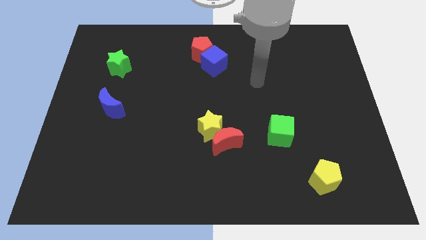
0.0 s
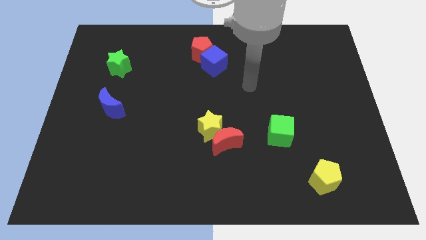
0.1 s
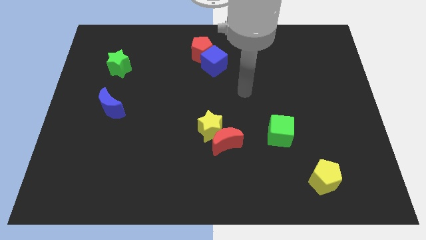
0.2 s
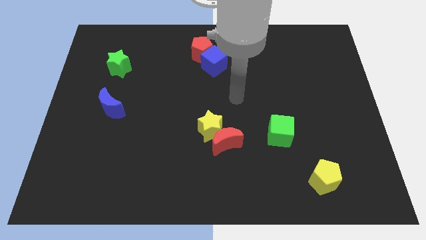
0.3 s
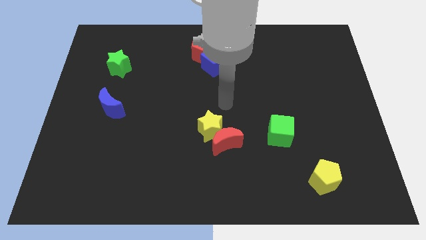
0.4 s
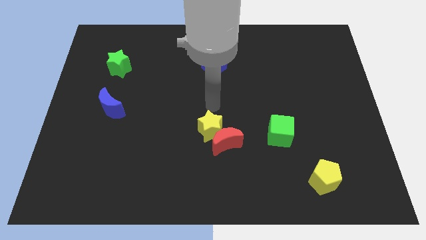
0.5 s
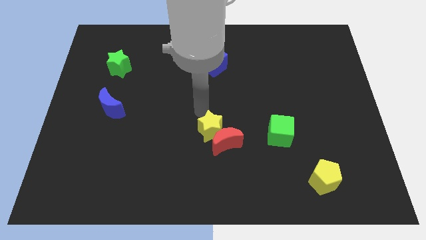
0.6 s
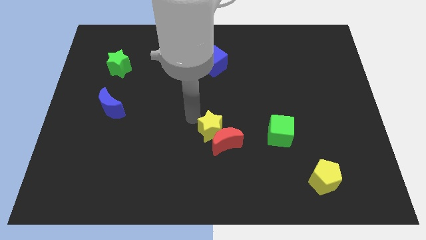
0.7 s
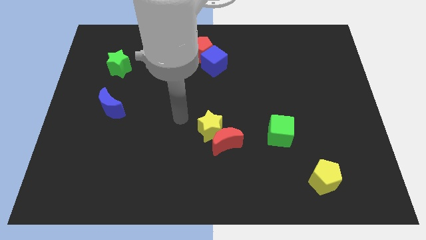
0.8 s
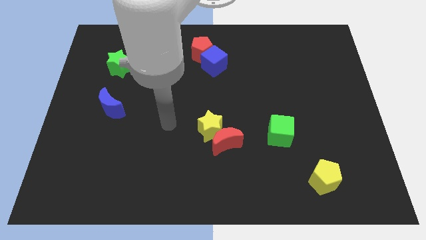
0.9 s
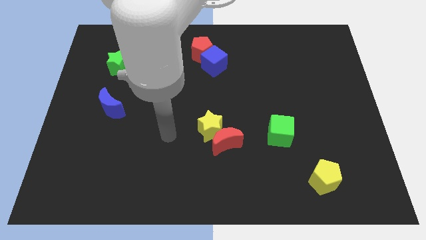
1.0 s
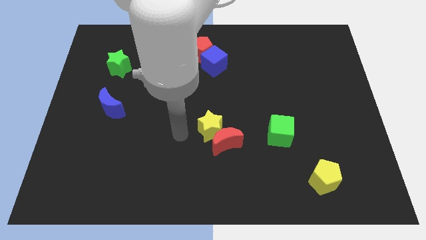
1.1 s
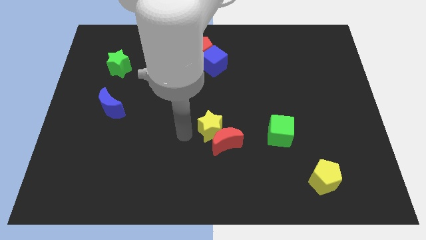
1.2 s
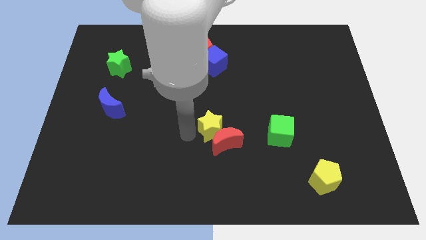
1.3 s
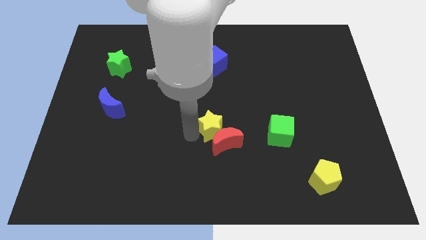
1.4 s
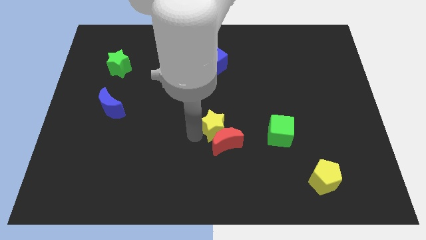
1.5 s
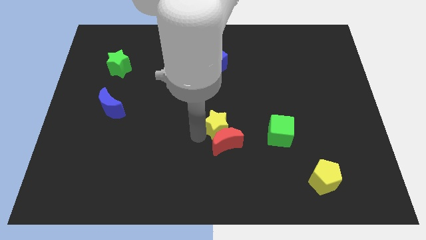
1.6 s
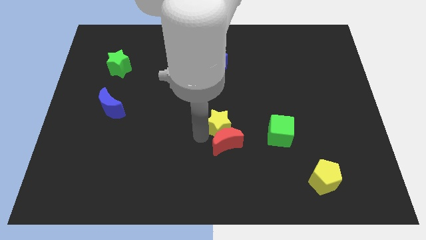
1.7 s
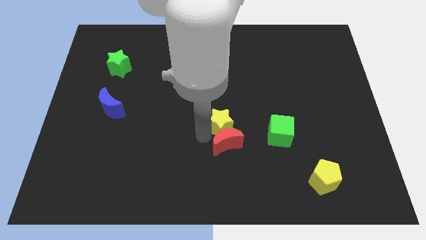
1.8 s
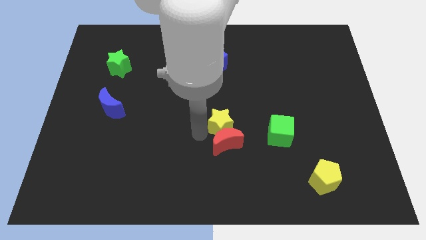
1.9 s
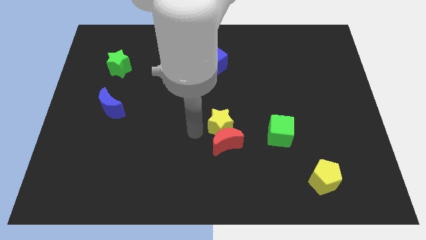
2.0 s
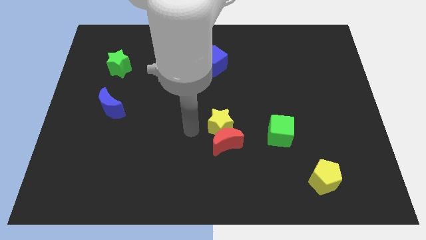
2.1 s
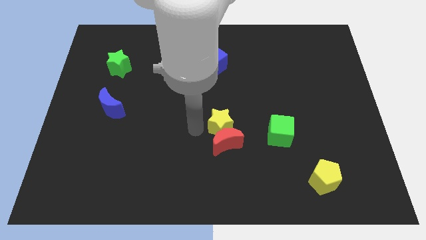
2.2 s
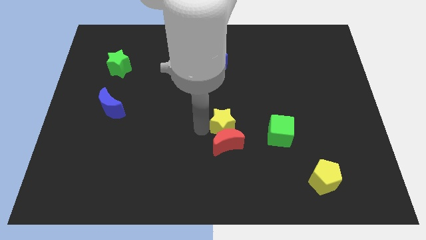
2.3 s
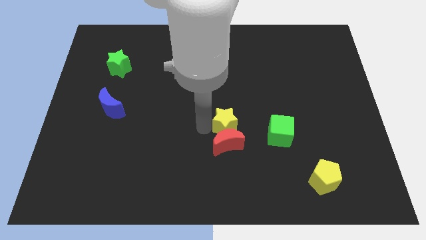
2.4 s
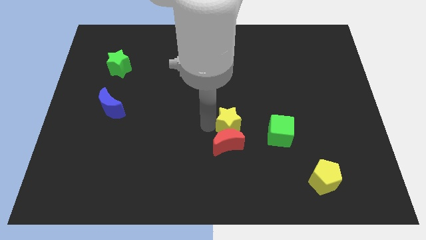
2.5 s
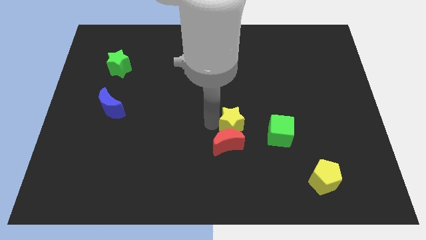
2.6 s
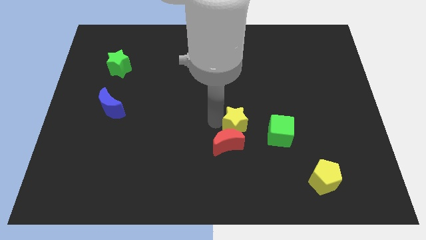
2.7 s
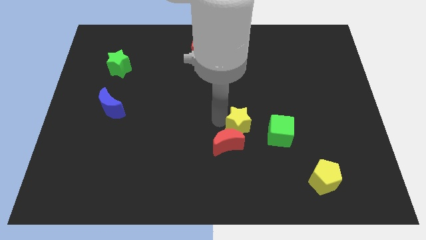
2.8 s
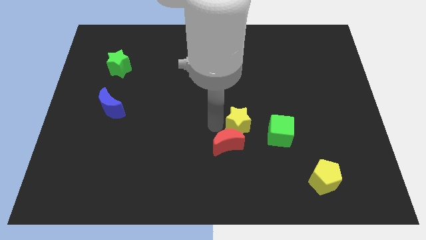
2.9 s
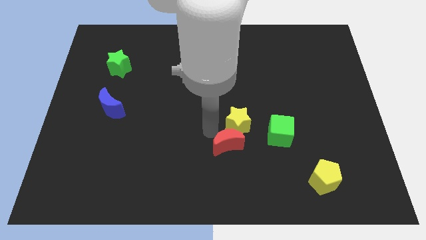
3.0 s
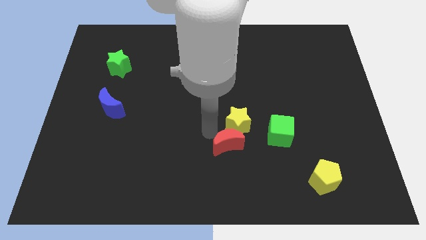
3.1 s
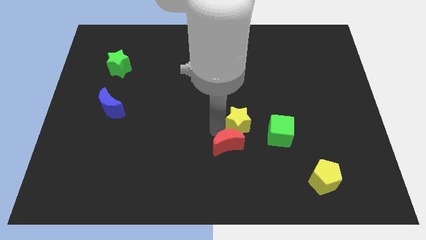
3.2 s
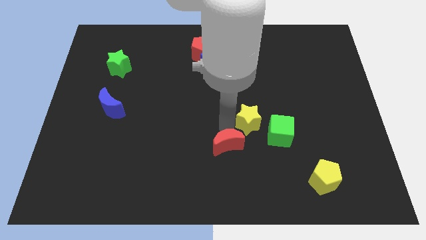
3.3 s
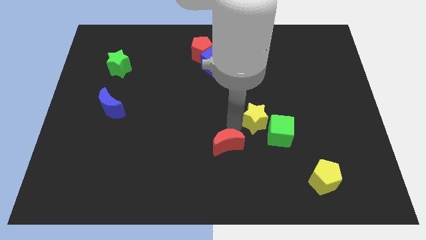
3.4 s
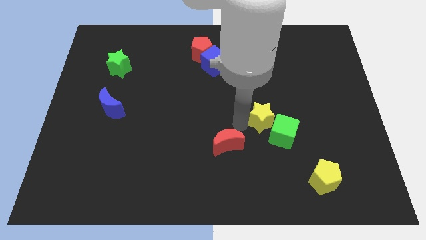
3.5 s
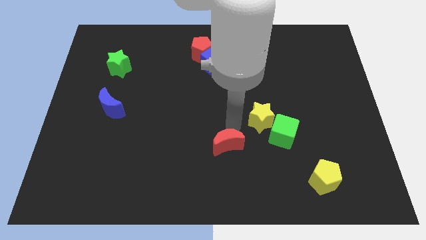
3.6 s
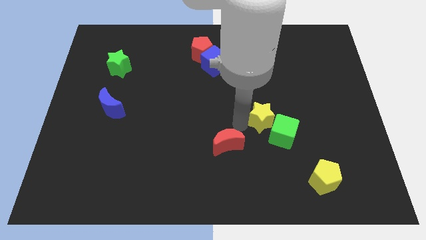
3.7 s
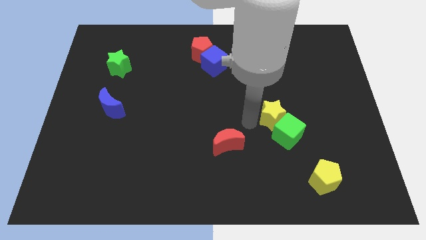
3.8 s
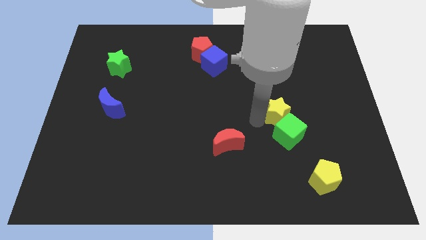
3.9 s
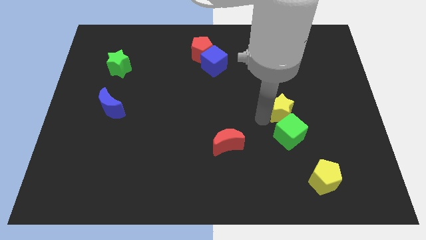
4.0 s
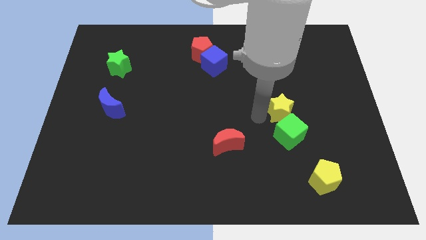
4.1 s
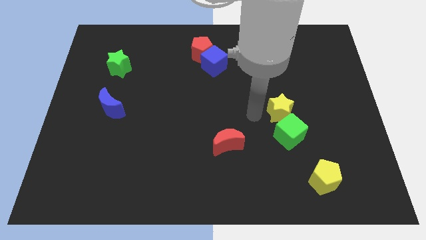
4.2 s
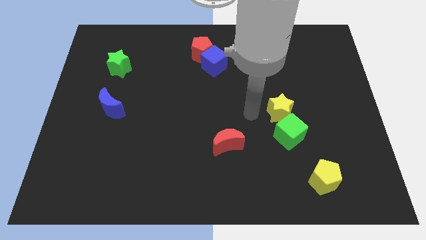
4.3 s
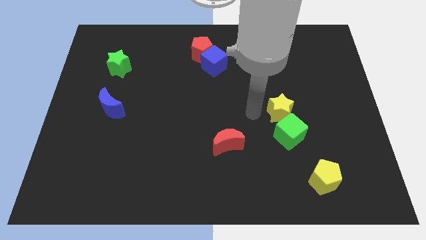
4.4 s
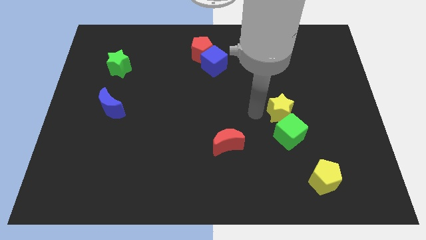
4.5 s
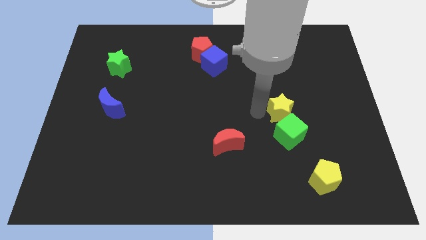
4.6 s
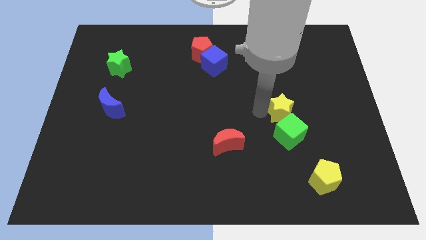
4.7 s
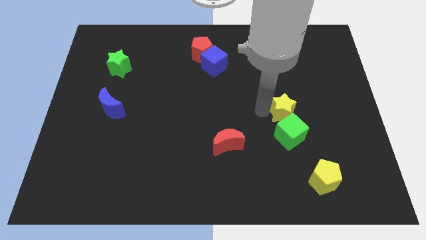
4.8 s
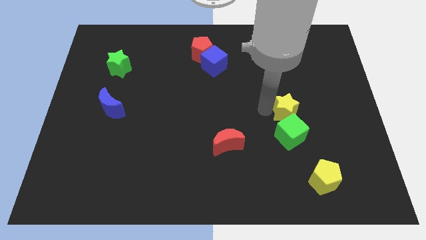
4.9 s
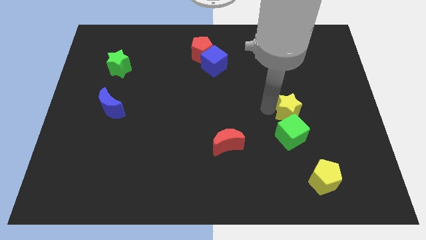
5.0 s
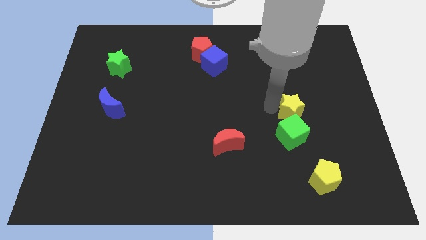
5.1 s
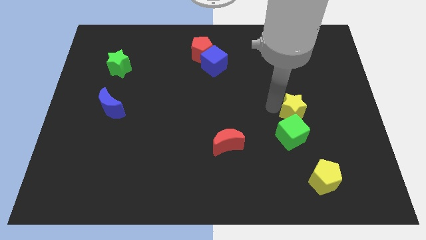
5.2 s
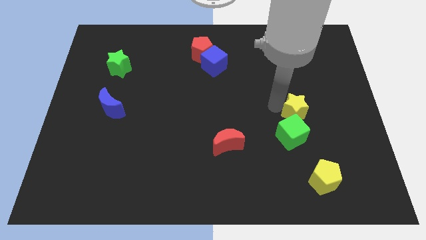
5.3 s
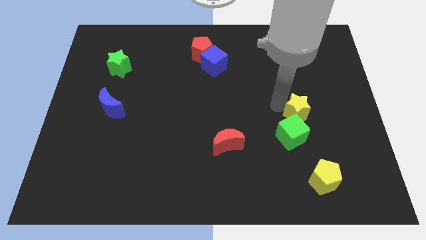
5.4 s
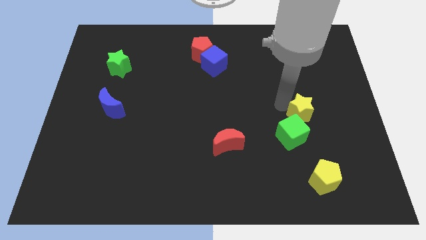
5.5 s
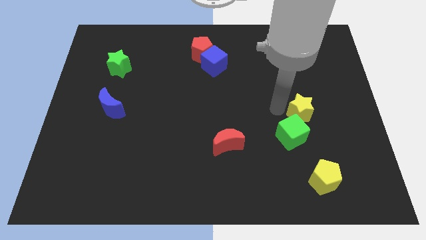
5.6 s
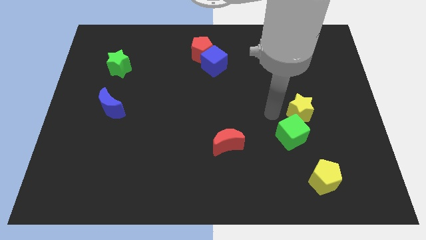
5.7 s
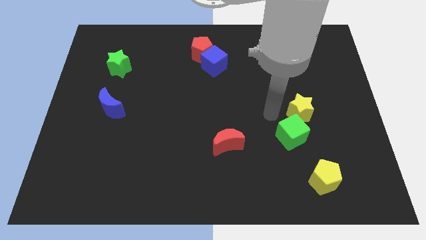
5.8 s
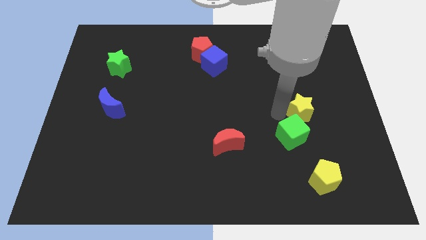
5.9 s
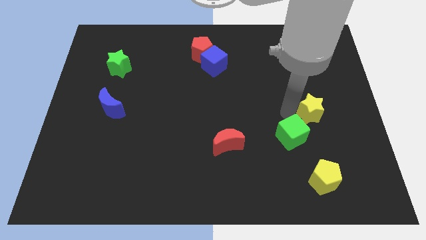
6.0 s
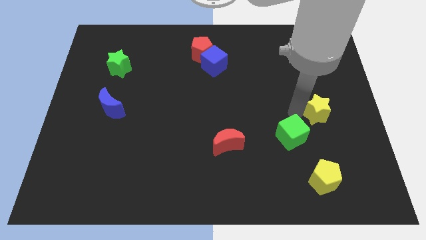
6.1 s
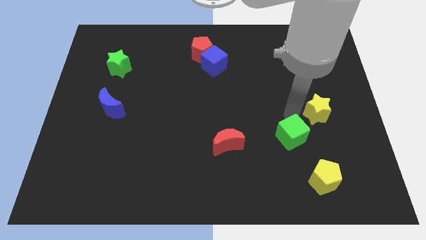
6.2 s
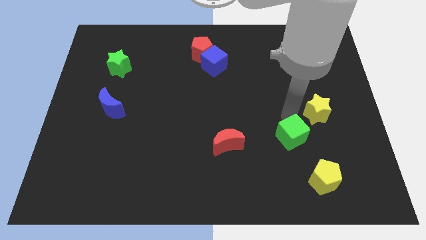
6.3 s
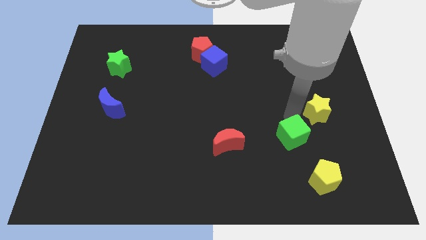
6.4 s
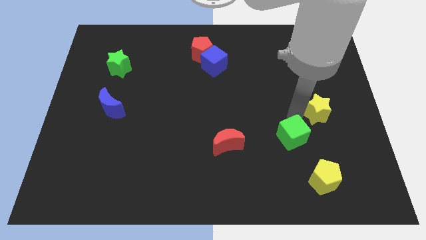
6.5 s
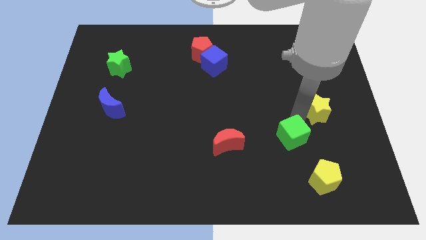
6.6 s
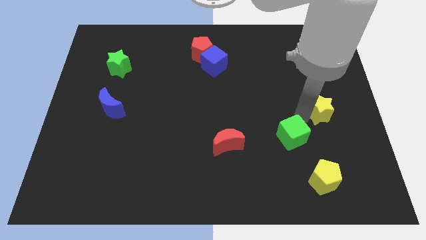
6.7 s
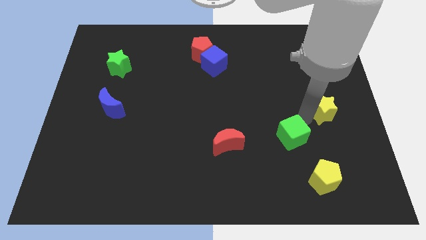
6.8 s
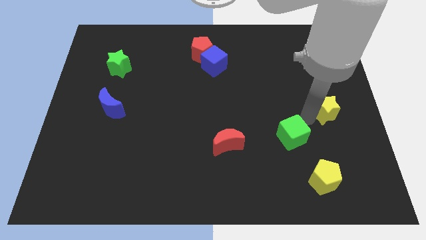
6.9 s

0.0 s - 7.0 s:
push the yellow star to the center right
